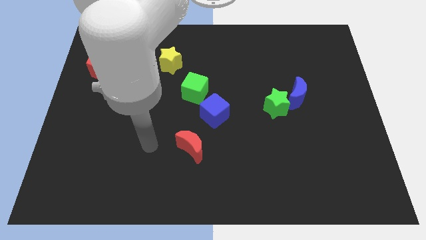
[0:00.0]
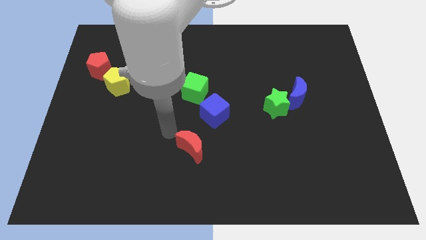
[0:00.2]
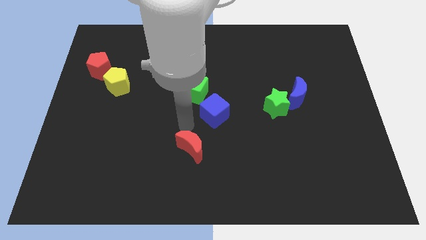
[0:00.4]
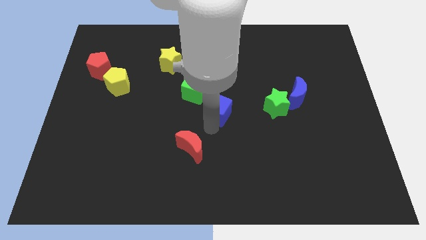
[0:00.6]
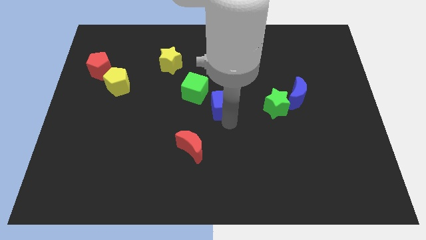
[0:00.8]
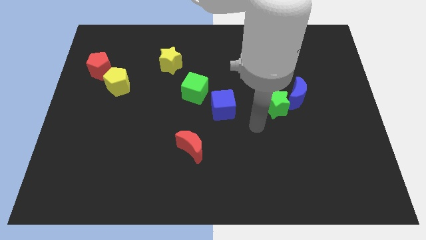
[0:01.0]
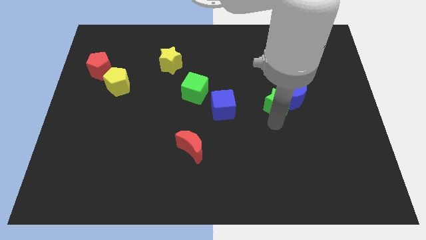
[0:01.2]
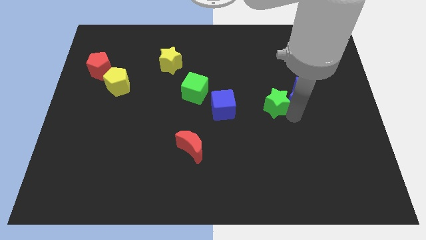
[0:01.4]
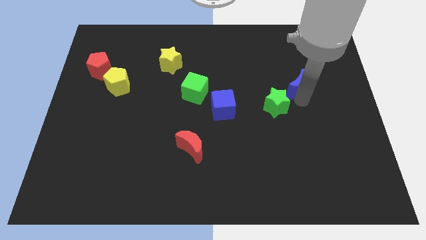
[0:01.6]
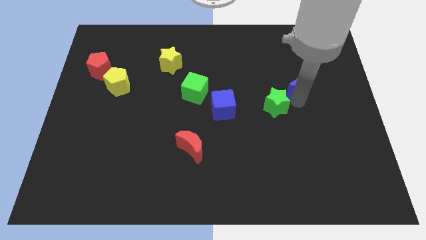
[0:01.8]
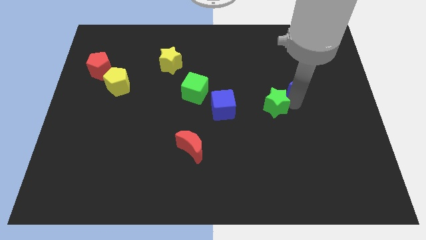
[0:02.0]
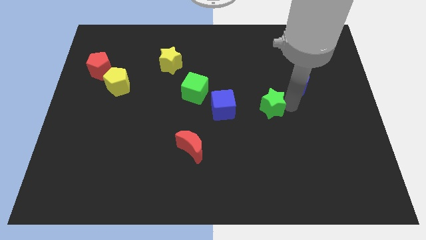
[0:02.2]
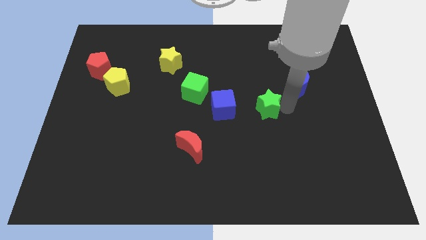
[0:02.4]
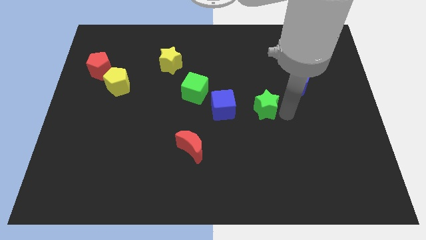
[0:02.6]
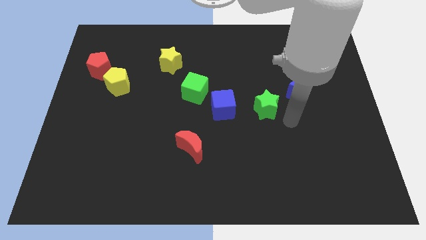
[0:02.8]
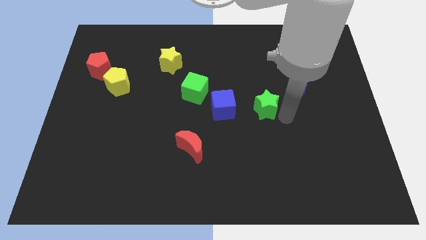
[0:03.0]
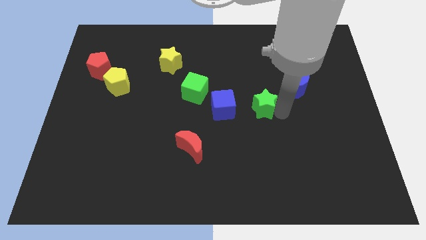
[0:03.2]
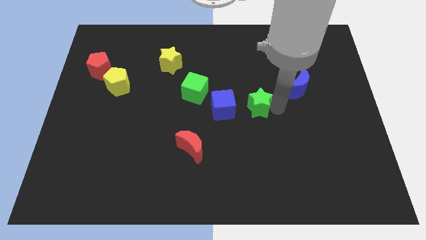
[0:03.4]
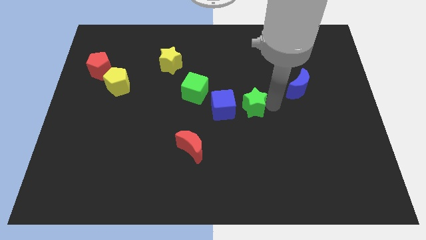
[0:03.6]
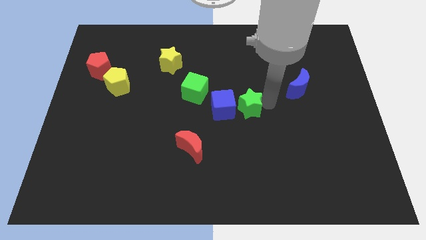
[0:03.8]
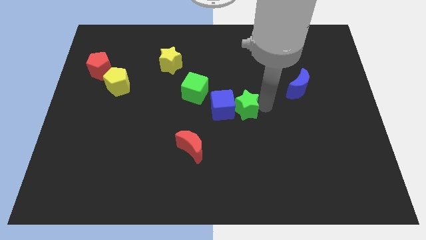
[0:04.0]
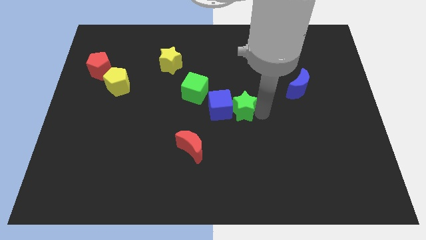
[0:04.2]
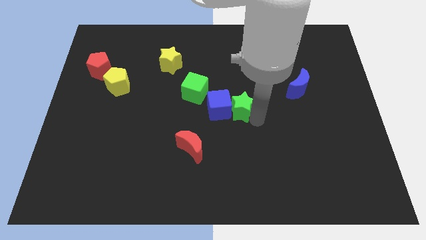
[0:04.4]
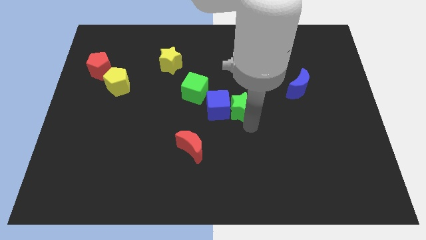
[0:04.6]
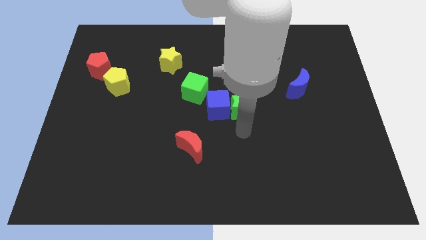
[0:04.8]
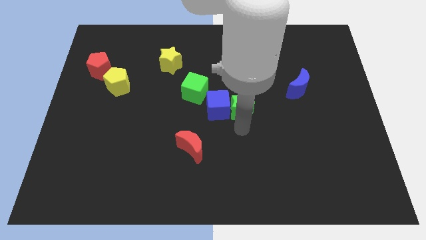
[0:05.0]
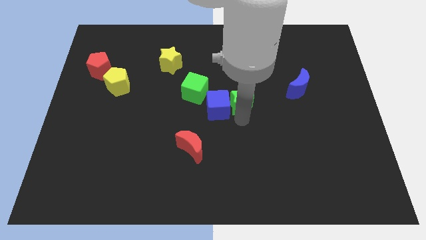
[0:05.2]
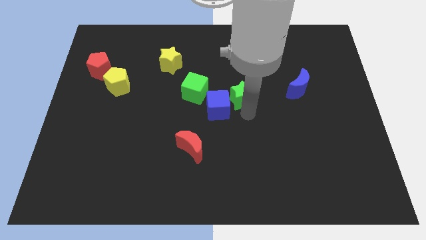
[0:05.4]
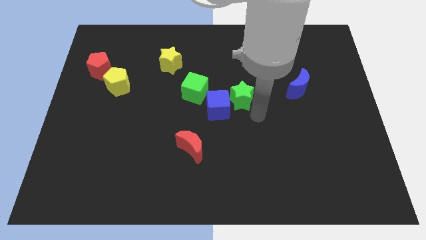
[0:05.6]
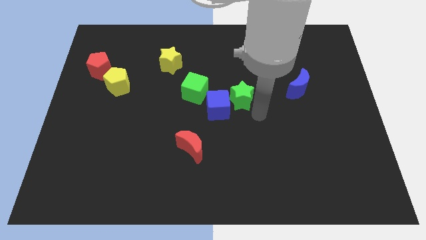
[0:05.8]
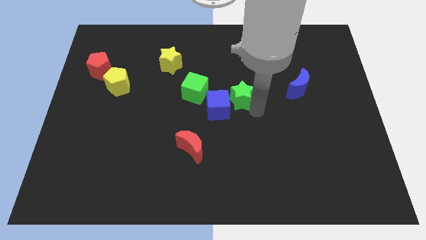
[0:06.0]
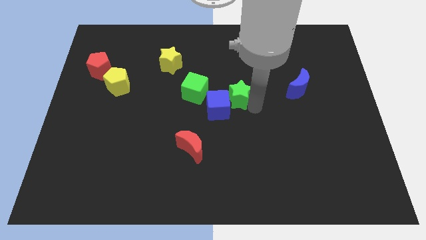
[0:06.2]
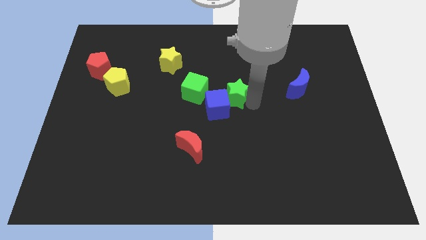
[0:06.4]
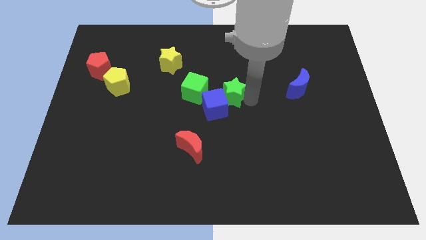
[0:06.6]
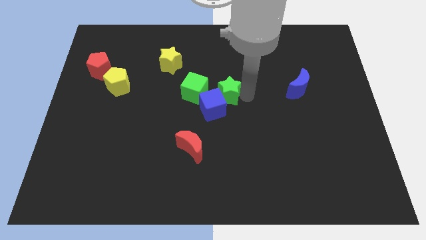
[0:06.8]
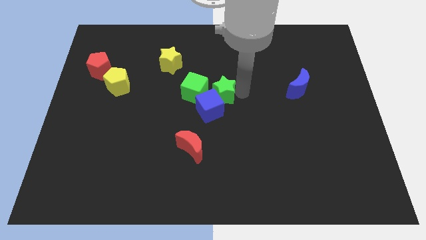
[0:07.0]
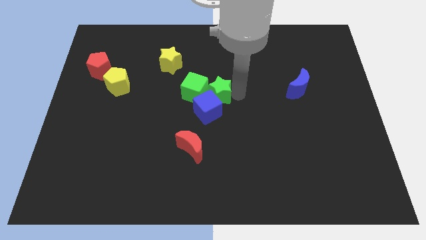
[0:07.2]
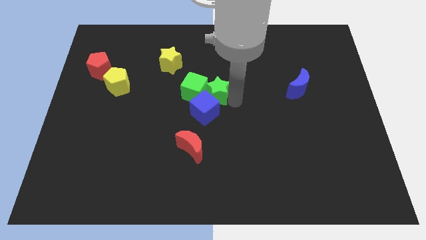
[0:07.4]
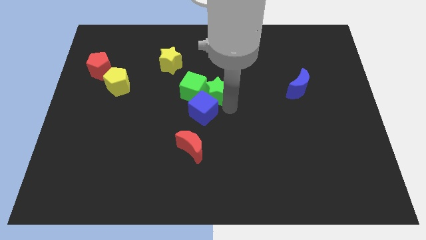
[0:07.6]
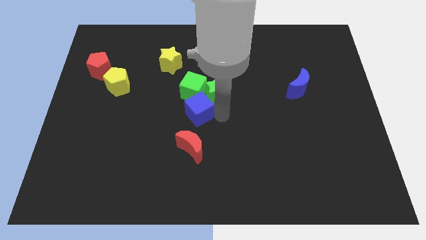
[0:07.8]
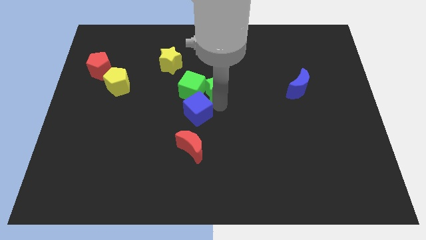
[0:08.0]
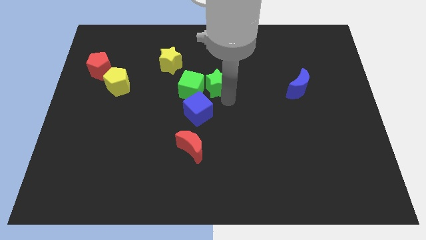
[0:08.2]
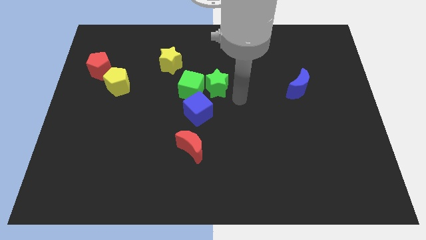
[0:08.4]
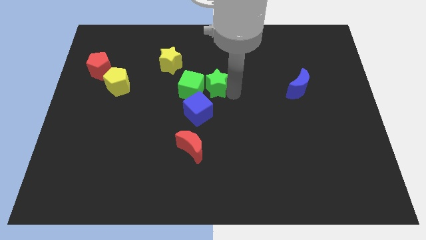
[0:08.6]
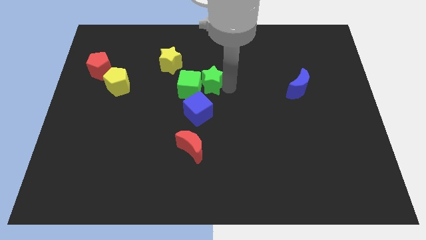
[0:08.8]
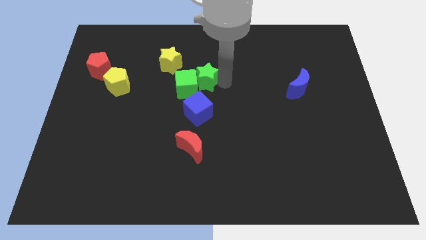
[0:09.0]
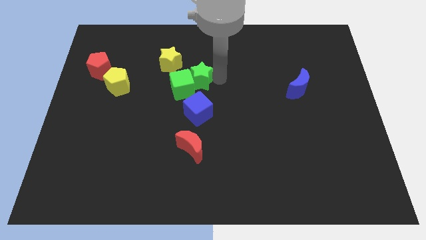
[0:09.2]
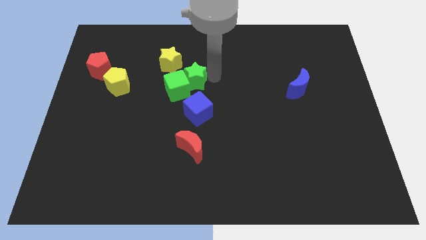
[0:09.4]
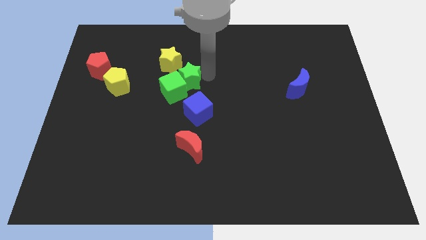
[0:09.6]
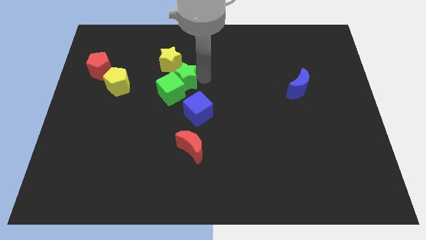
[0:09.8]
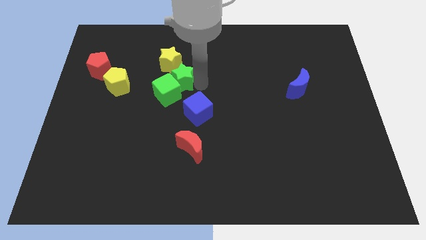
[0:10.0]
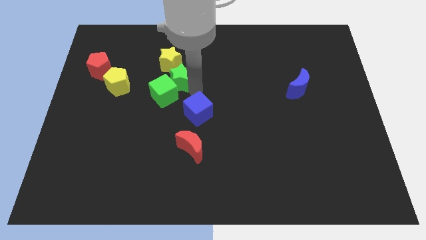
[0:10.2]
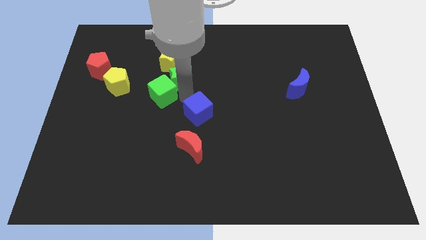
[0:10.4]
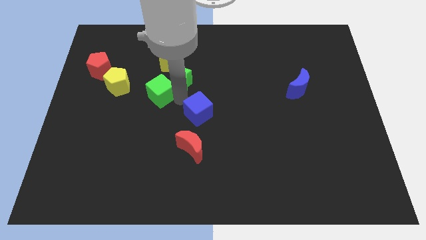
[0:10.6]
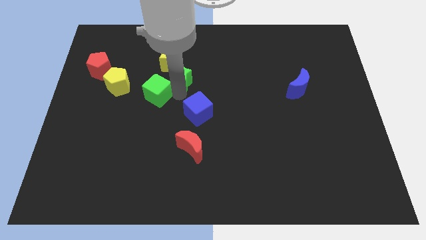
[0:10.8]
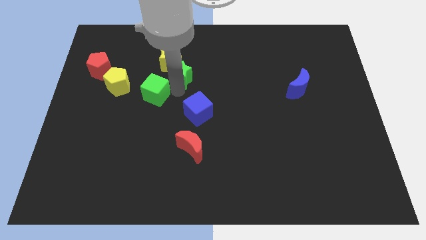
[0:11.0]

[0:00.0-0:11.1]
slide the green star next to the yellow star

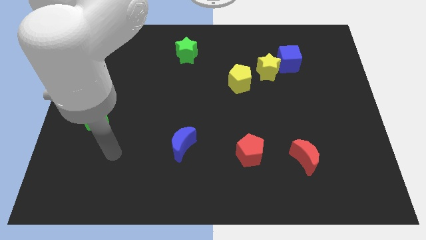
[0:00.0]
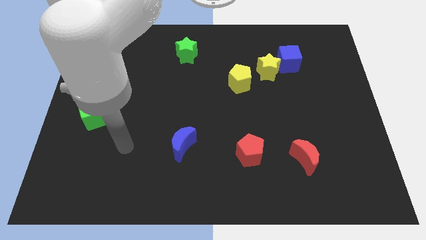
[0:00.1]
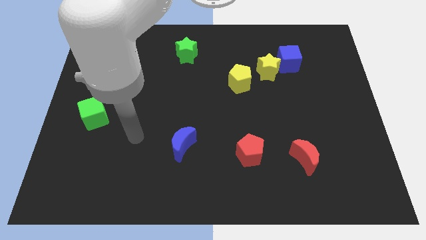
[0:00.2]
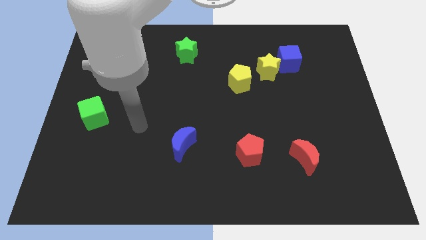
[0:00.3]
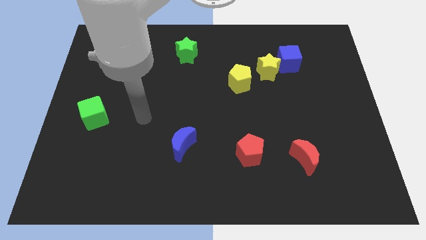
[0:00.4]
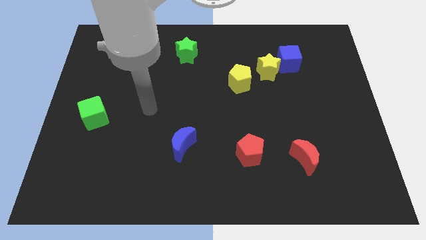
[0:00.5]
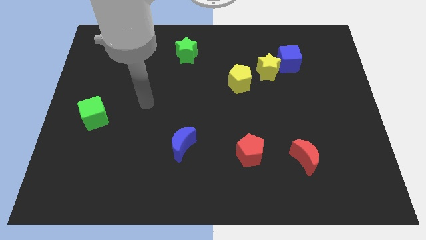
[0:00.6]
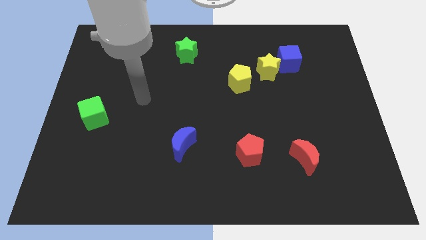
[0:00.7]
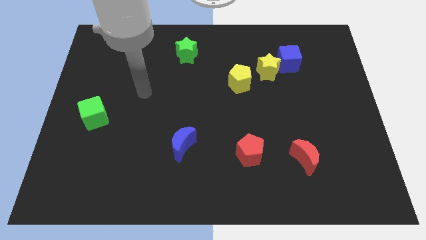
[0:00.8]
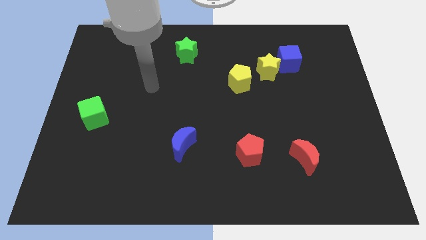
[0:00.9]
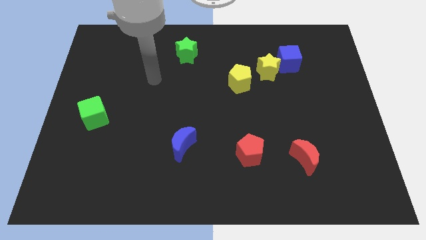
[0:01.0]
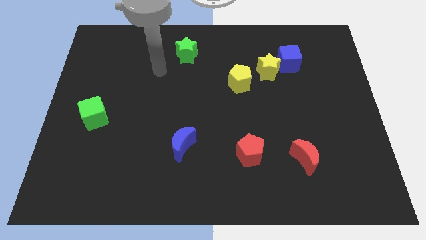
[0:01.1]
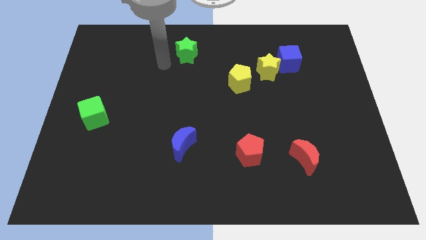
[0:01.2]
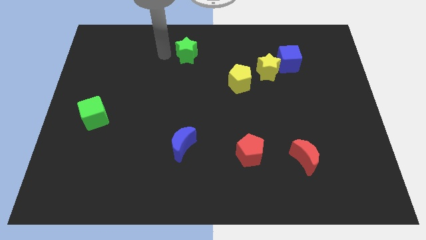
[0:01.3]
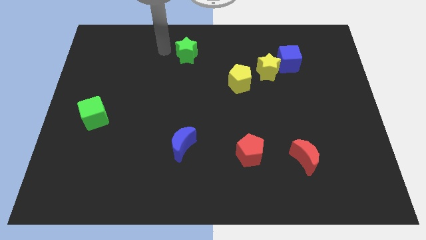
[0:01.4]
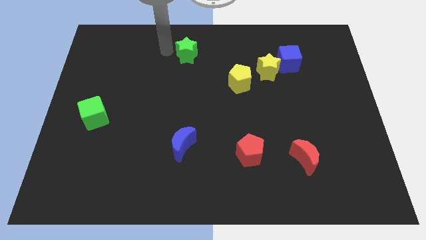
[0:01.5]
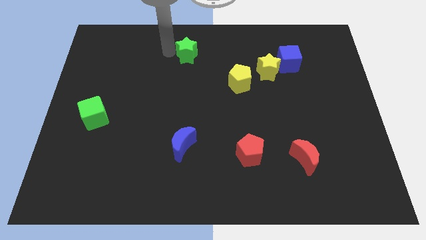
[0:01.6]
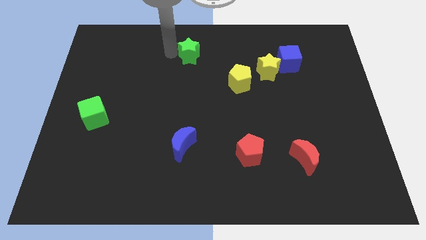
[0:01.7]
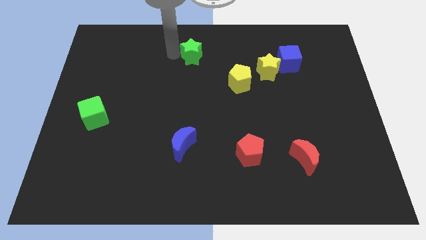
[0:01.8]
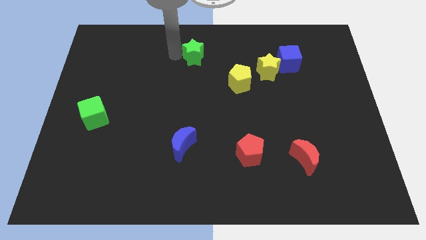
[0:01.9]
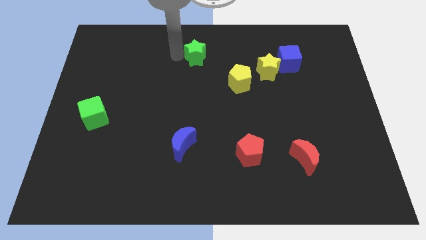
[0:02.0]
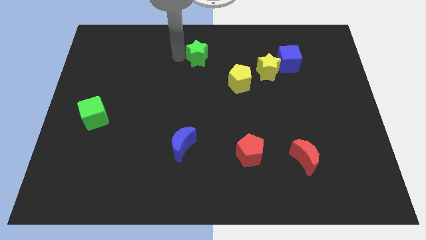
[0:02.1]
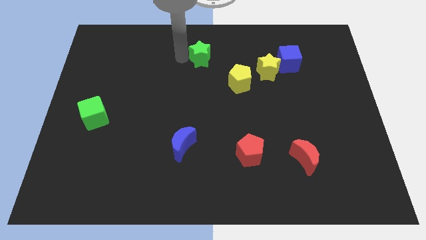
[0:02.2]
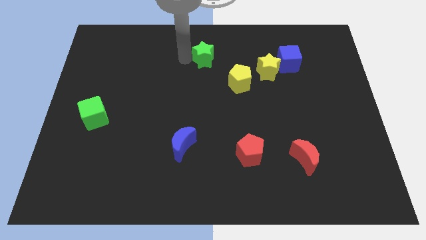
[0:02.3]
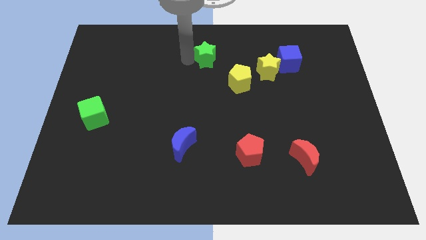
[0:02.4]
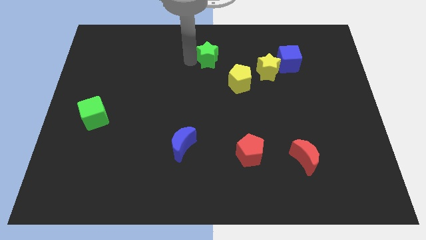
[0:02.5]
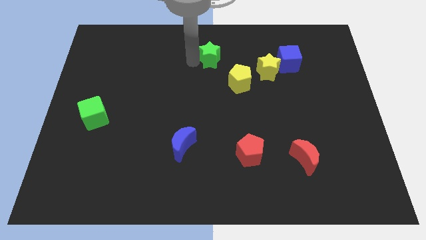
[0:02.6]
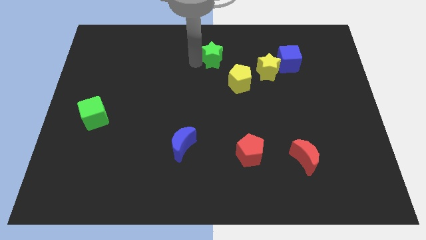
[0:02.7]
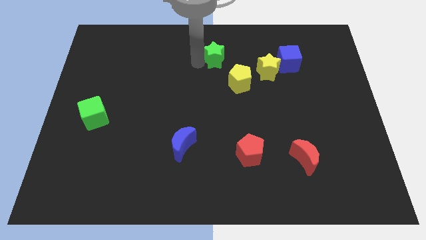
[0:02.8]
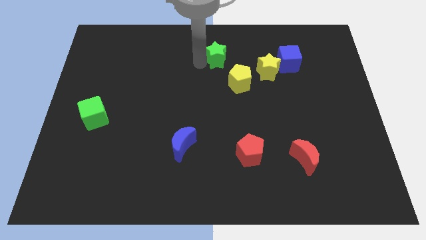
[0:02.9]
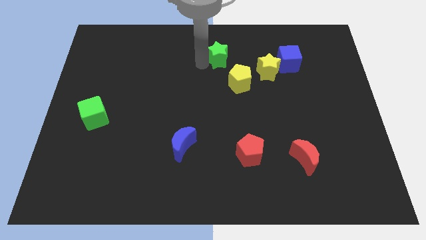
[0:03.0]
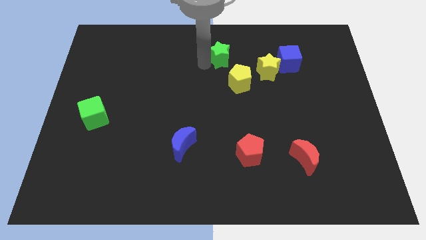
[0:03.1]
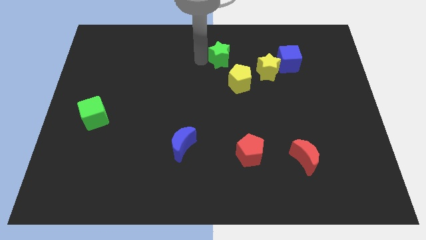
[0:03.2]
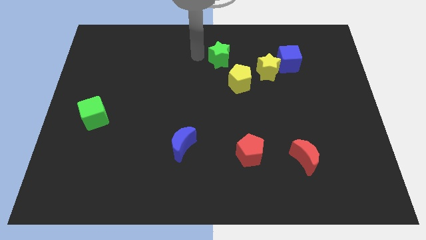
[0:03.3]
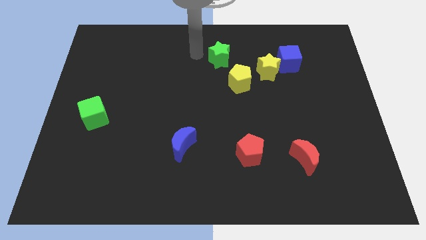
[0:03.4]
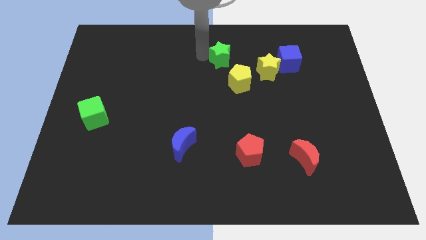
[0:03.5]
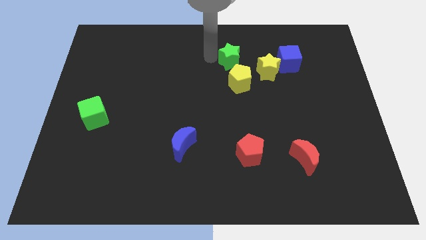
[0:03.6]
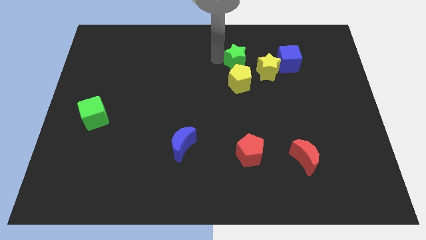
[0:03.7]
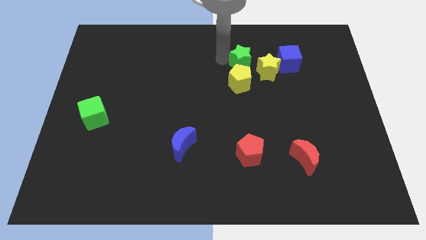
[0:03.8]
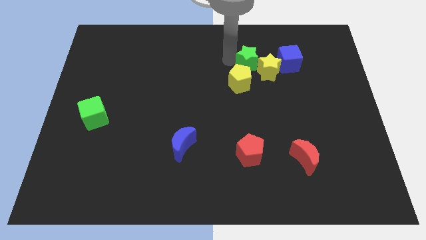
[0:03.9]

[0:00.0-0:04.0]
move the green star next to the yellow star
